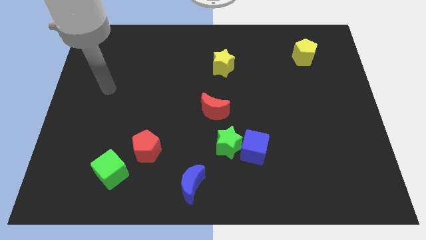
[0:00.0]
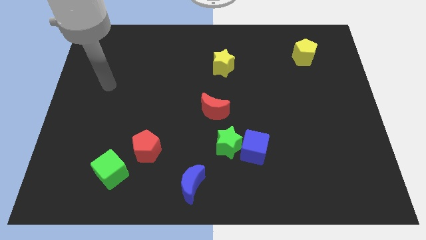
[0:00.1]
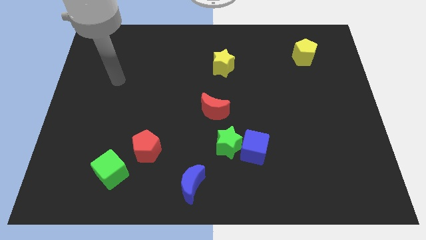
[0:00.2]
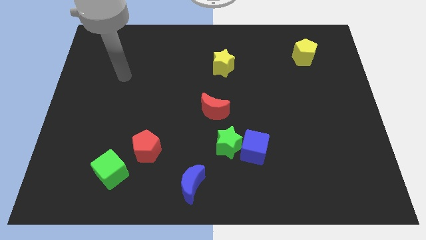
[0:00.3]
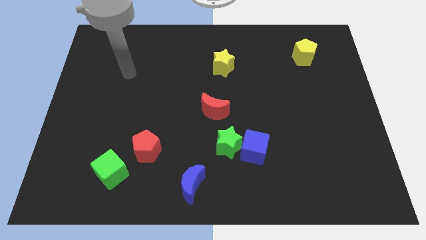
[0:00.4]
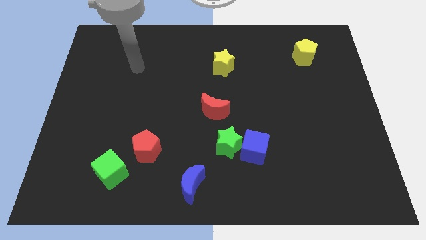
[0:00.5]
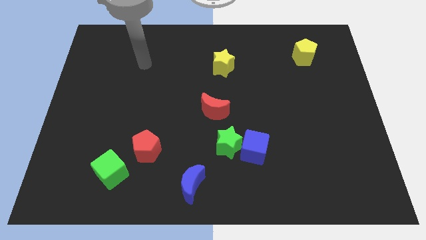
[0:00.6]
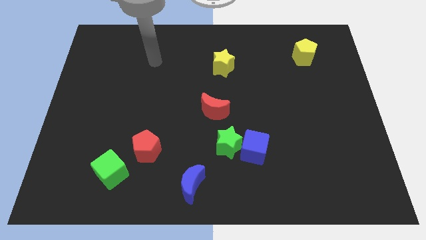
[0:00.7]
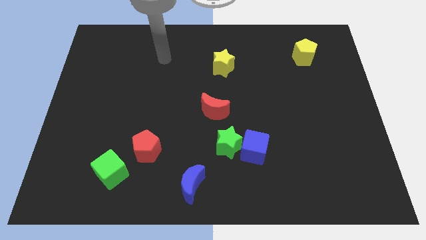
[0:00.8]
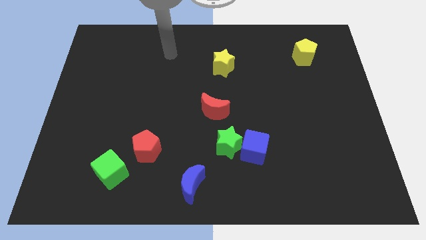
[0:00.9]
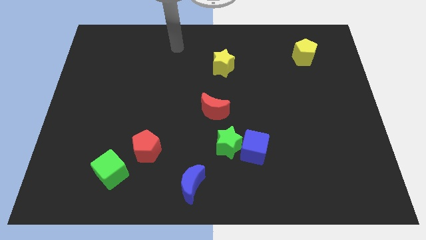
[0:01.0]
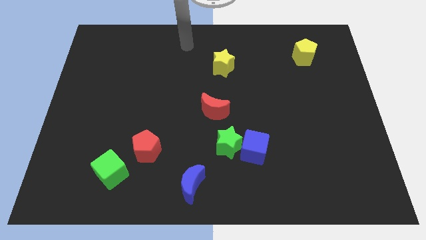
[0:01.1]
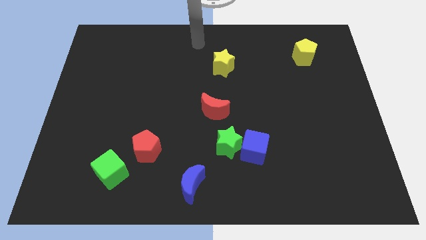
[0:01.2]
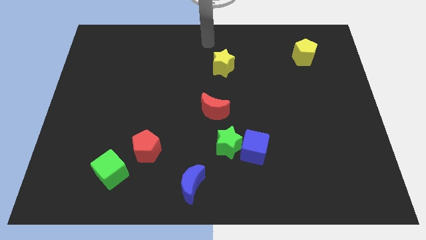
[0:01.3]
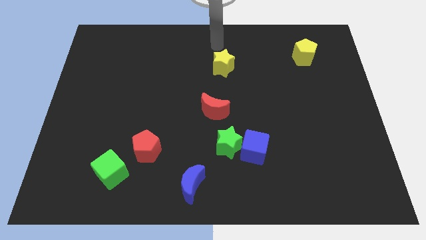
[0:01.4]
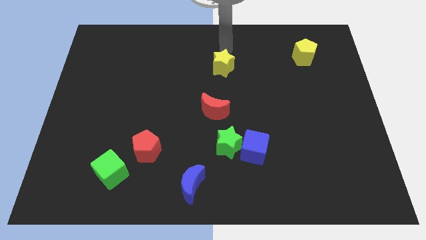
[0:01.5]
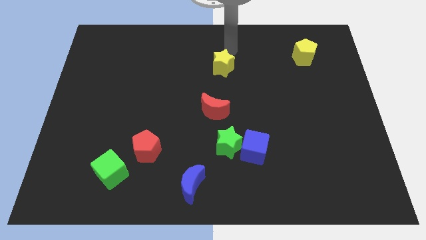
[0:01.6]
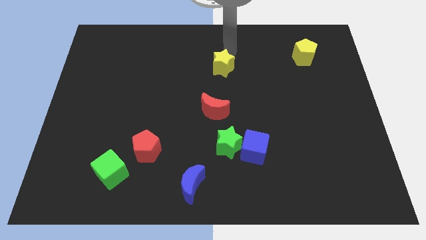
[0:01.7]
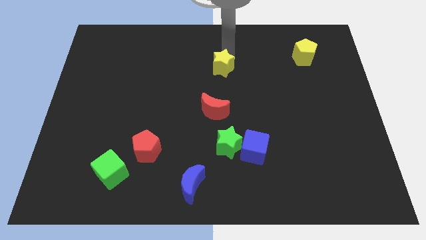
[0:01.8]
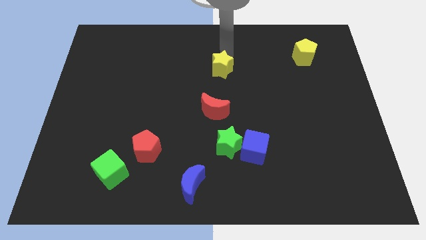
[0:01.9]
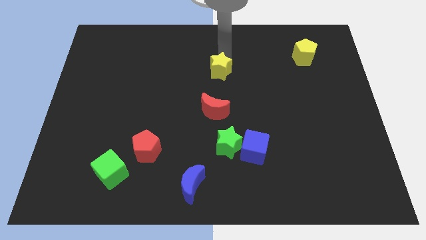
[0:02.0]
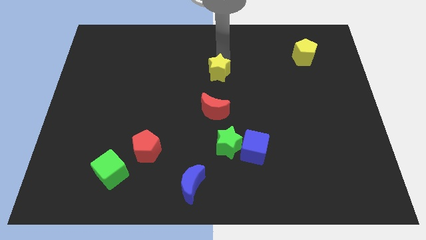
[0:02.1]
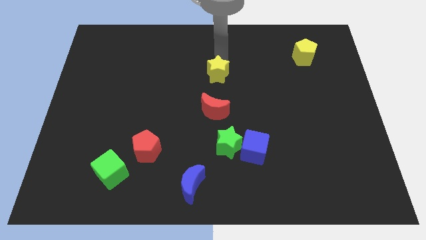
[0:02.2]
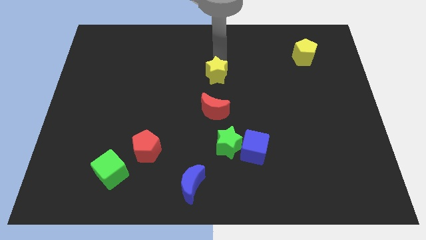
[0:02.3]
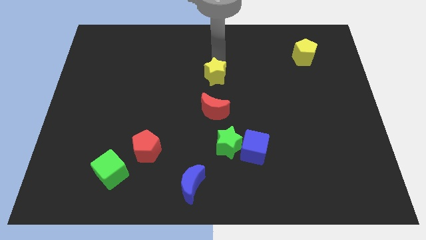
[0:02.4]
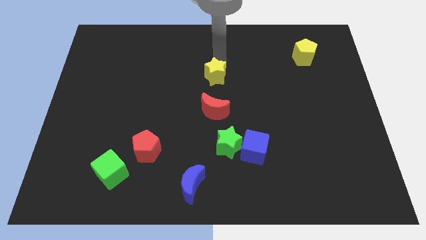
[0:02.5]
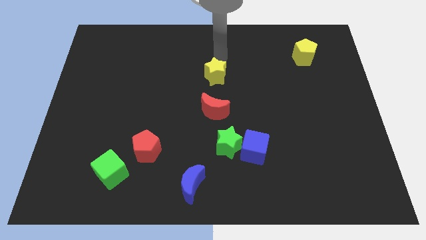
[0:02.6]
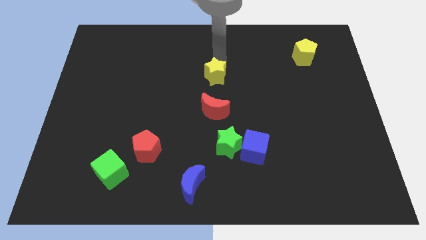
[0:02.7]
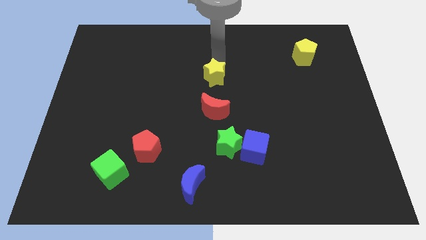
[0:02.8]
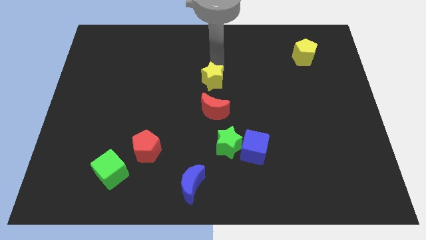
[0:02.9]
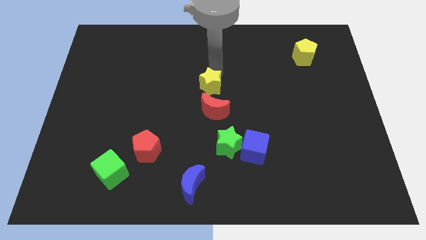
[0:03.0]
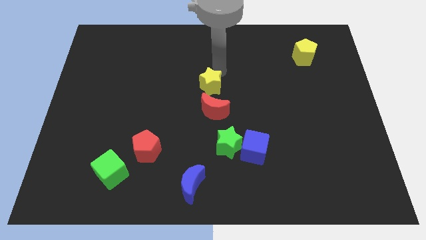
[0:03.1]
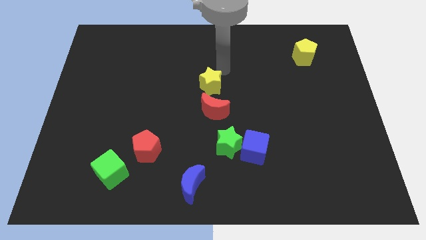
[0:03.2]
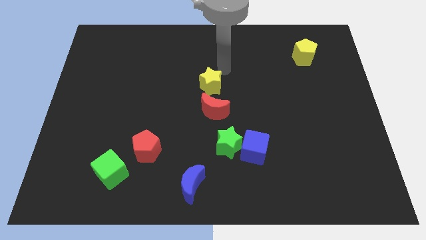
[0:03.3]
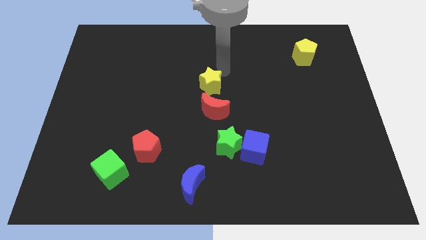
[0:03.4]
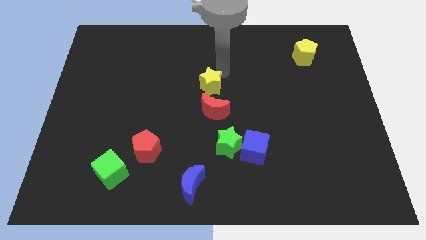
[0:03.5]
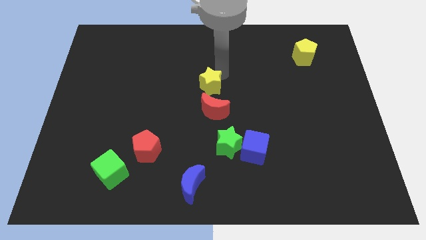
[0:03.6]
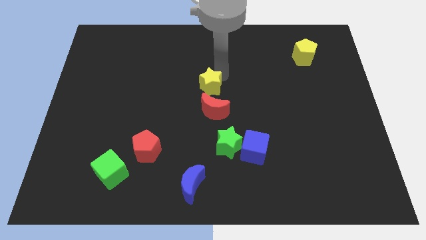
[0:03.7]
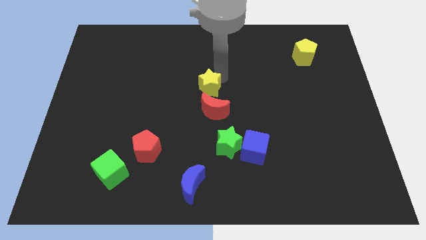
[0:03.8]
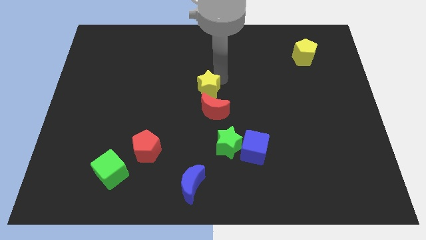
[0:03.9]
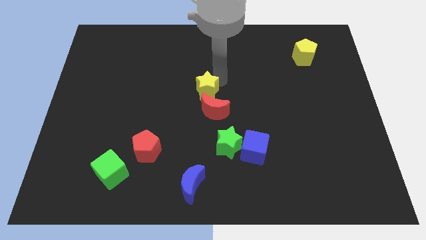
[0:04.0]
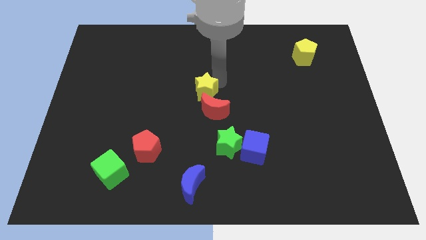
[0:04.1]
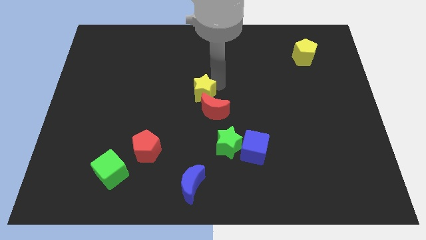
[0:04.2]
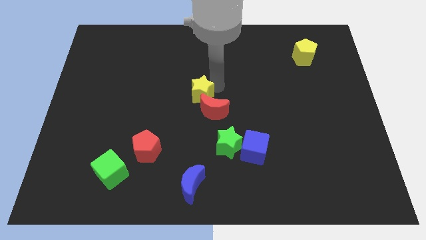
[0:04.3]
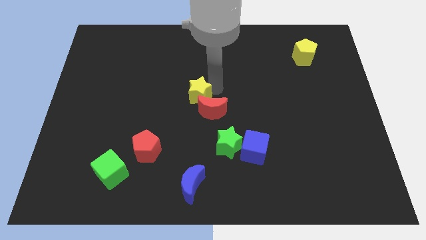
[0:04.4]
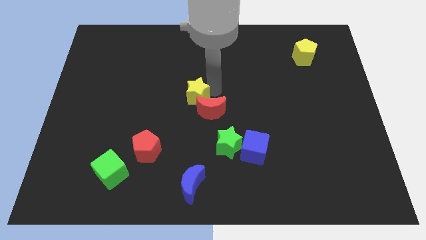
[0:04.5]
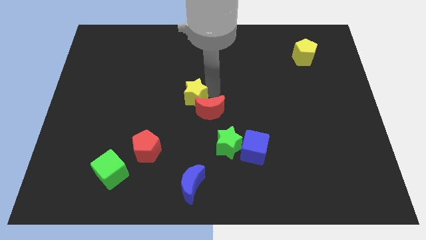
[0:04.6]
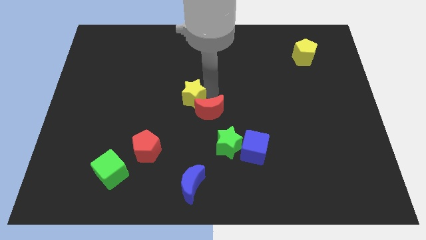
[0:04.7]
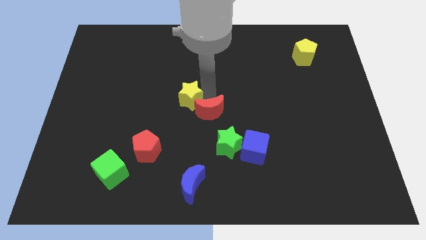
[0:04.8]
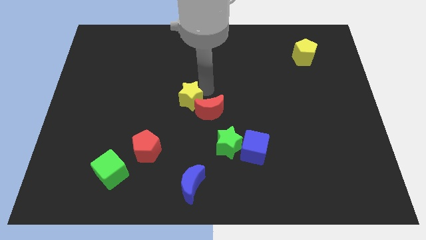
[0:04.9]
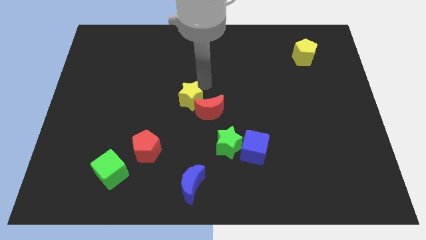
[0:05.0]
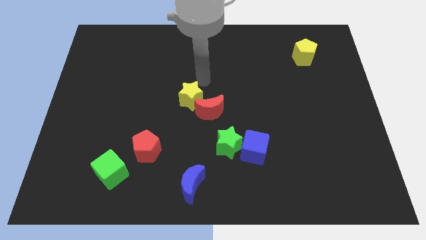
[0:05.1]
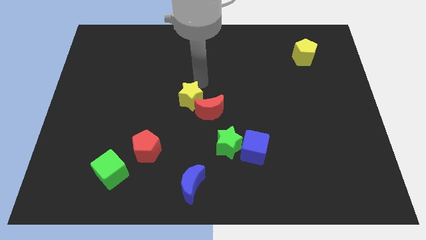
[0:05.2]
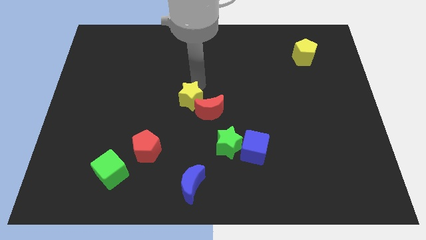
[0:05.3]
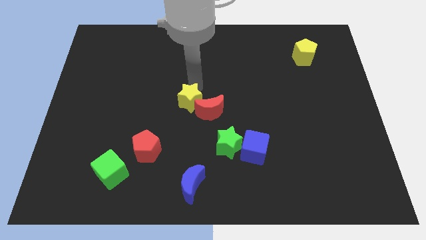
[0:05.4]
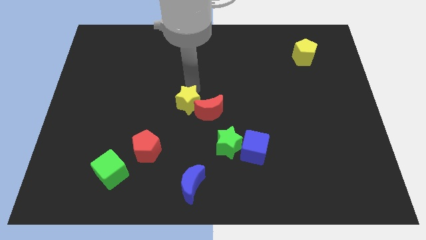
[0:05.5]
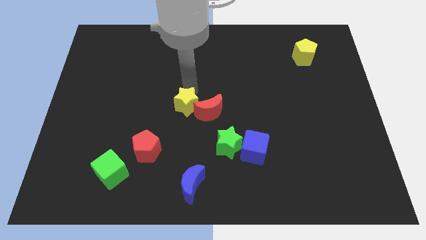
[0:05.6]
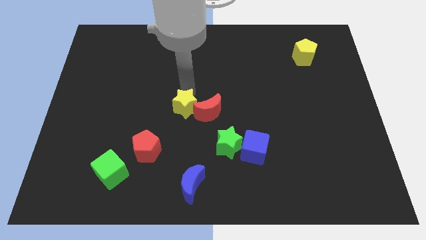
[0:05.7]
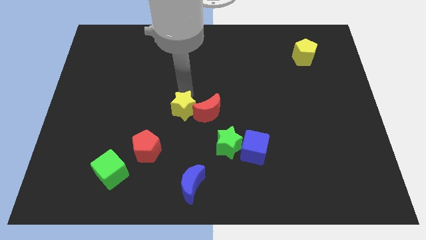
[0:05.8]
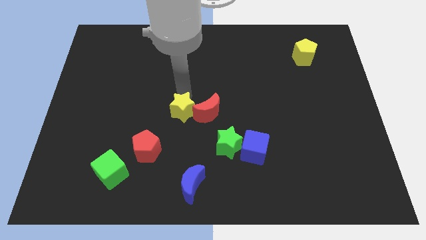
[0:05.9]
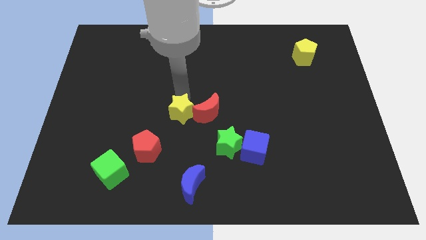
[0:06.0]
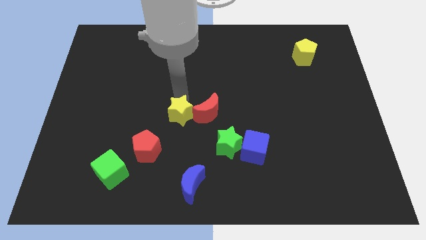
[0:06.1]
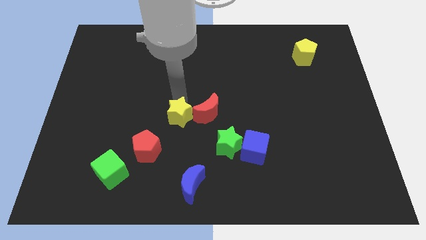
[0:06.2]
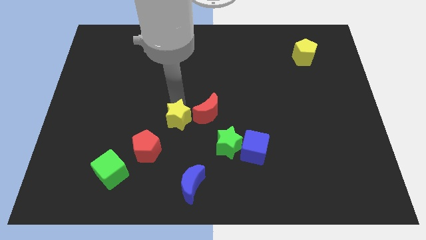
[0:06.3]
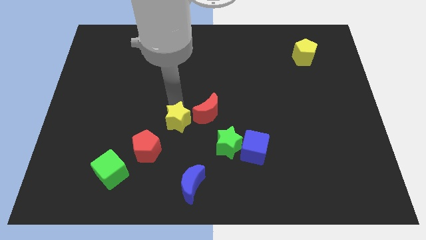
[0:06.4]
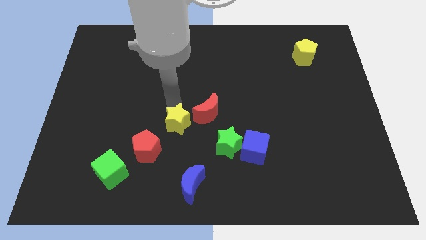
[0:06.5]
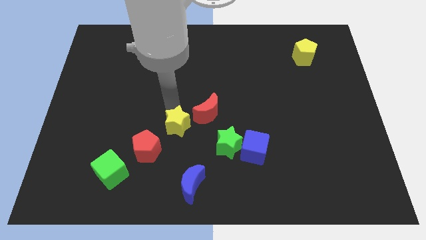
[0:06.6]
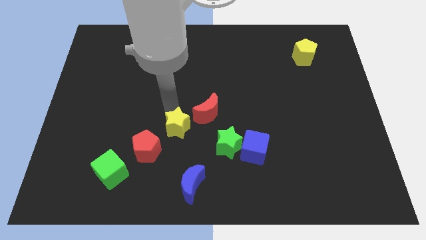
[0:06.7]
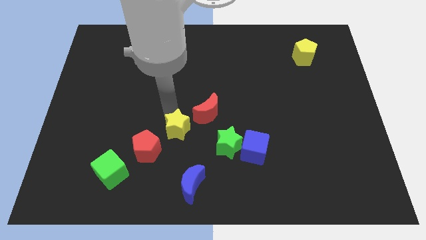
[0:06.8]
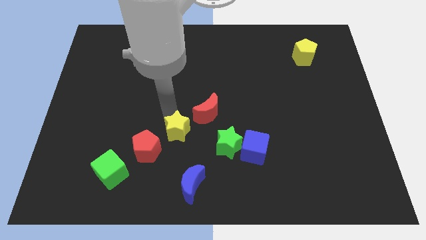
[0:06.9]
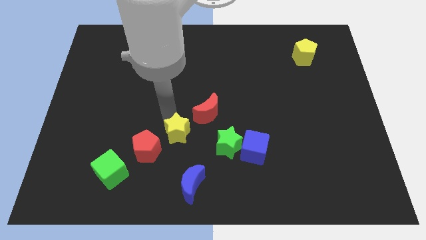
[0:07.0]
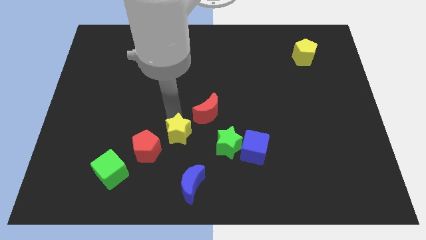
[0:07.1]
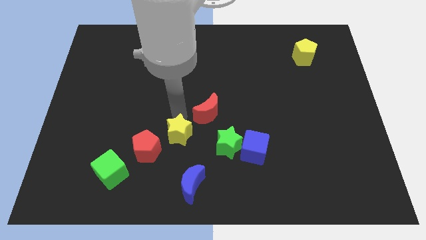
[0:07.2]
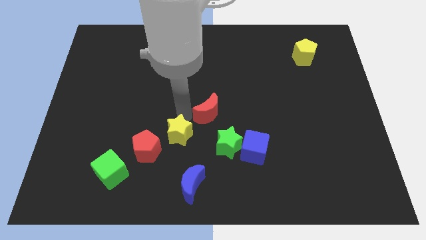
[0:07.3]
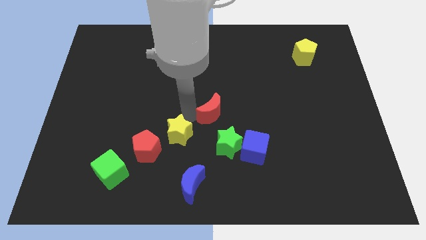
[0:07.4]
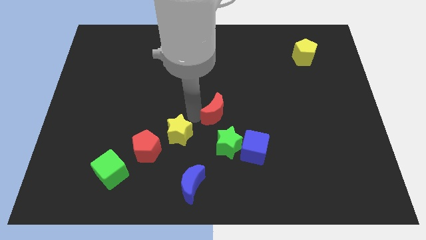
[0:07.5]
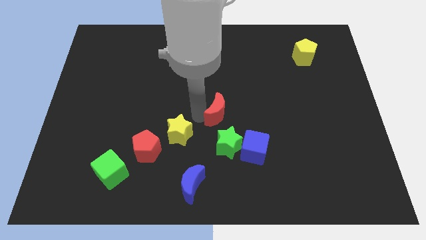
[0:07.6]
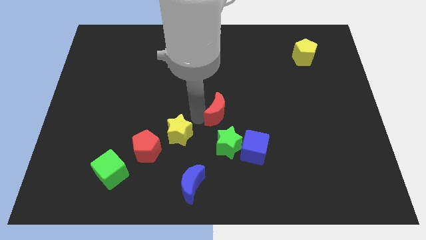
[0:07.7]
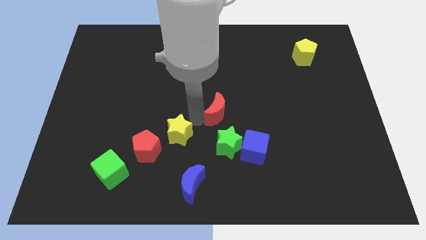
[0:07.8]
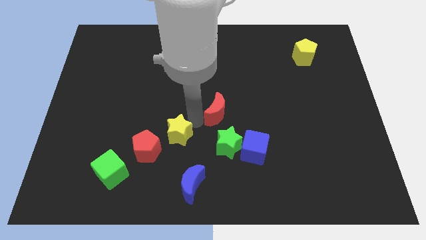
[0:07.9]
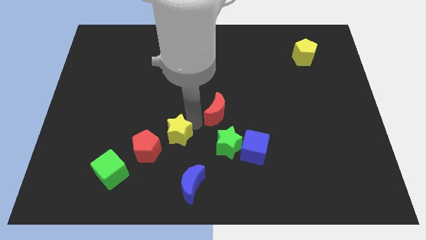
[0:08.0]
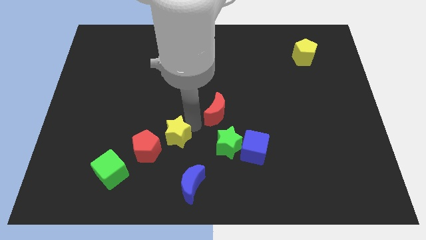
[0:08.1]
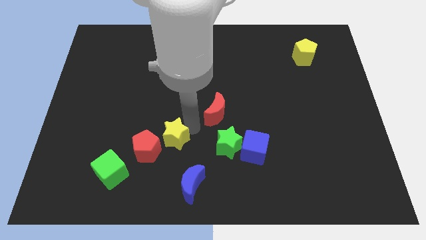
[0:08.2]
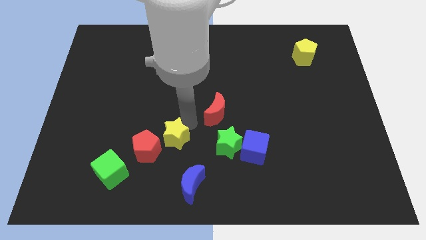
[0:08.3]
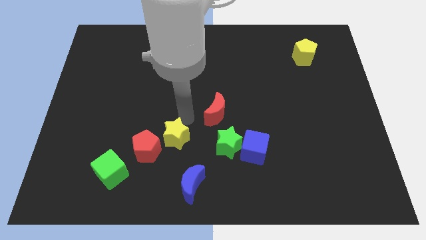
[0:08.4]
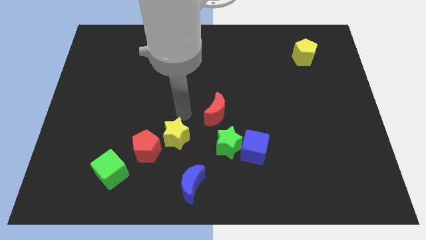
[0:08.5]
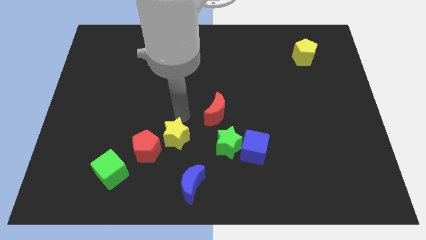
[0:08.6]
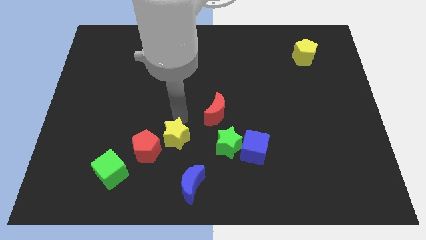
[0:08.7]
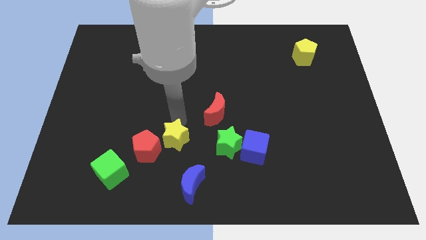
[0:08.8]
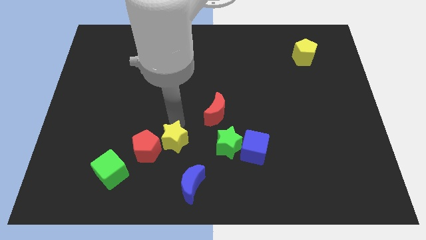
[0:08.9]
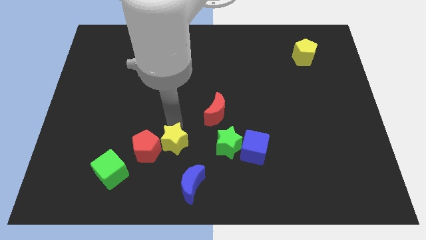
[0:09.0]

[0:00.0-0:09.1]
put the yellow star diagonally up and to the left of the blue moon
